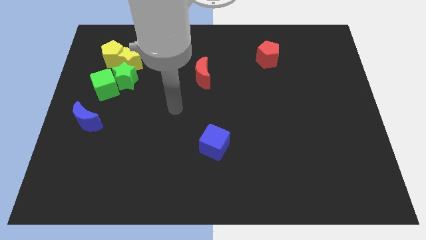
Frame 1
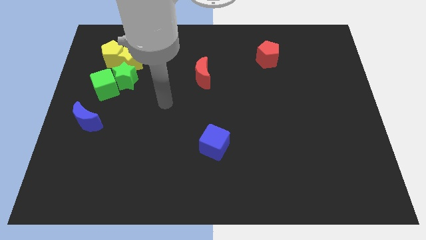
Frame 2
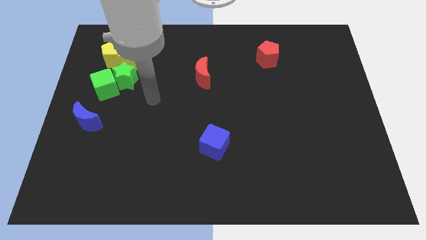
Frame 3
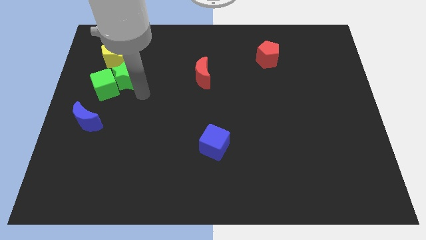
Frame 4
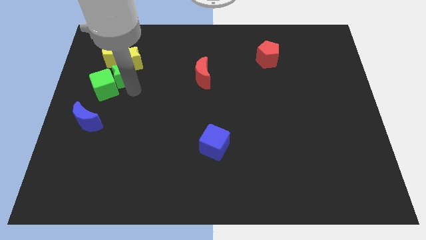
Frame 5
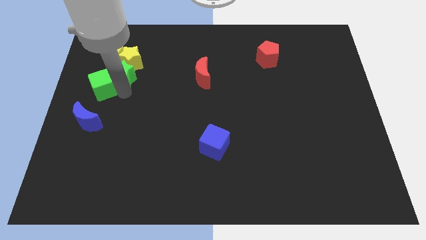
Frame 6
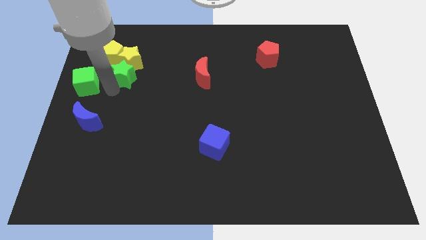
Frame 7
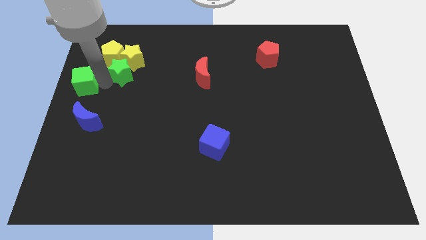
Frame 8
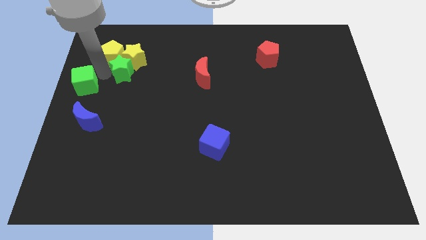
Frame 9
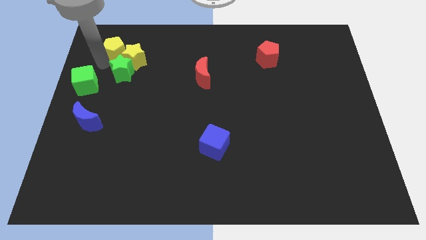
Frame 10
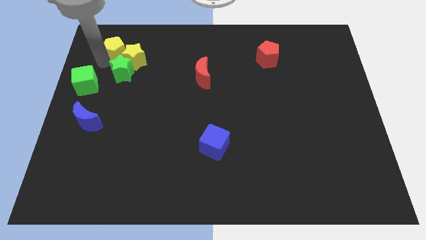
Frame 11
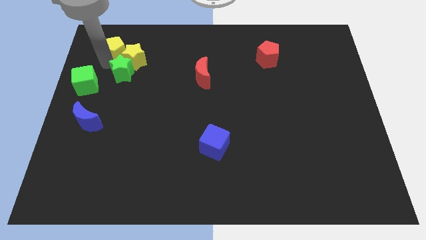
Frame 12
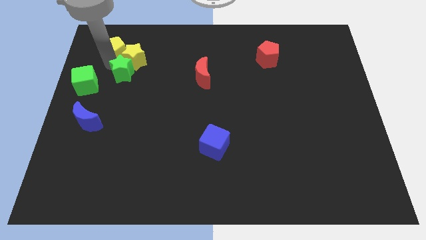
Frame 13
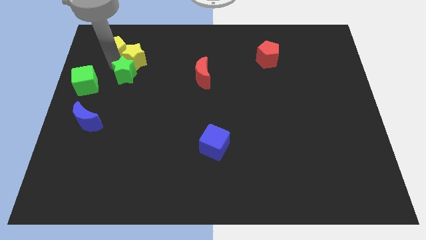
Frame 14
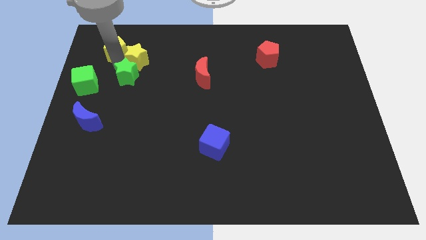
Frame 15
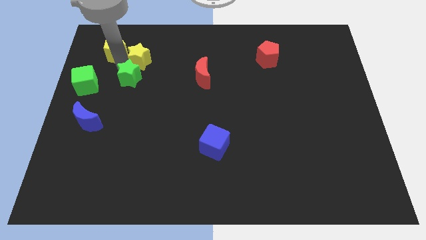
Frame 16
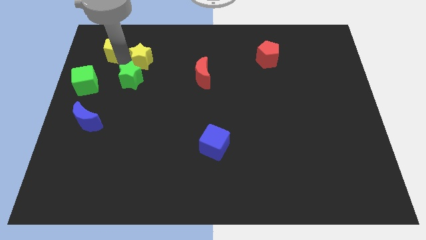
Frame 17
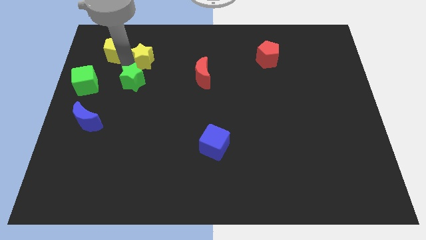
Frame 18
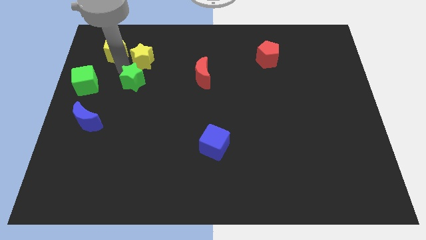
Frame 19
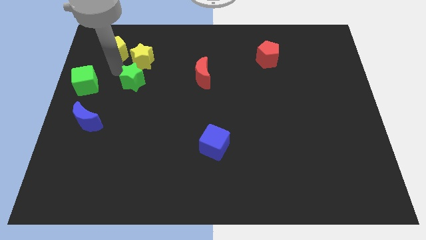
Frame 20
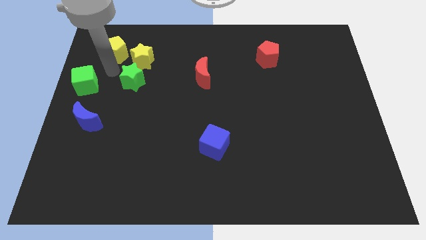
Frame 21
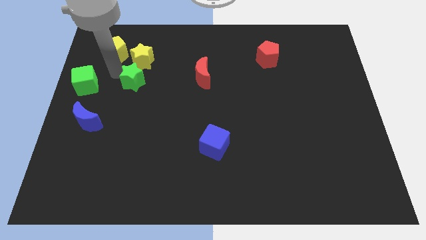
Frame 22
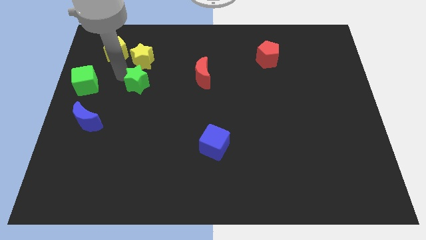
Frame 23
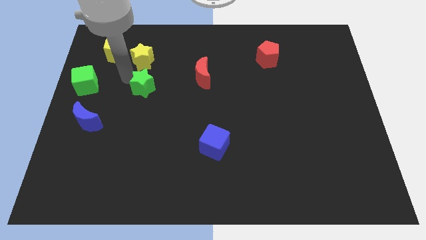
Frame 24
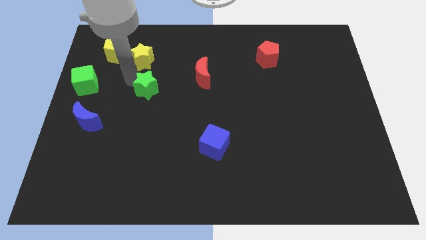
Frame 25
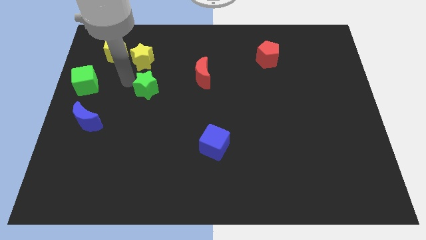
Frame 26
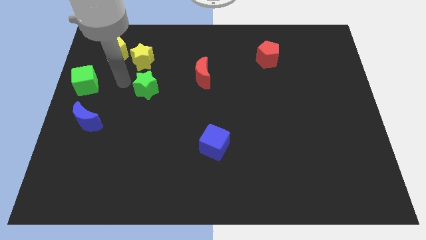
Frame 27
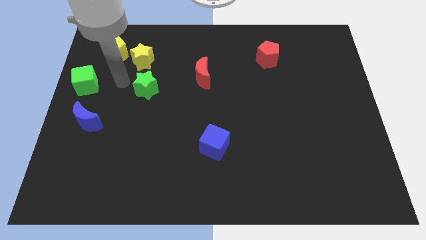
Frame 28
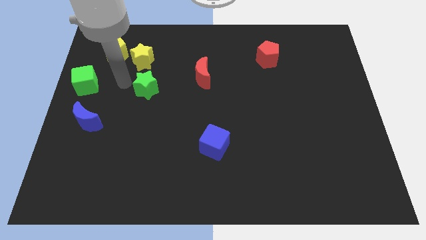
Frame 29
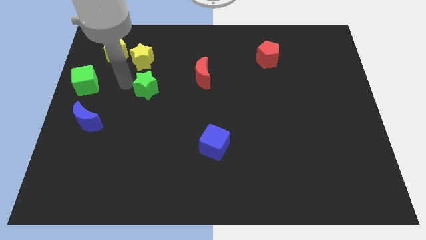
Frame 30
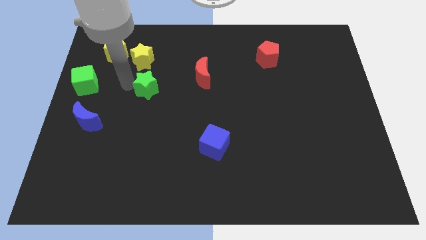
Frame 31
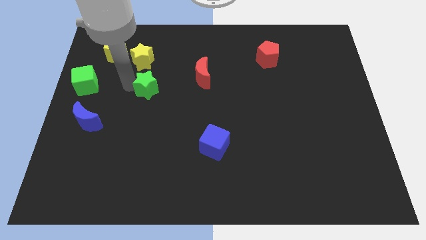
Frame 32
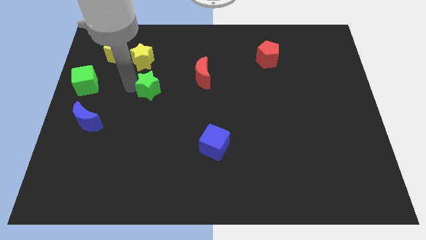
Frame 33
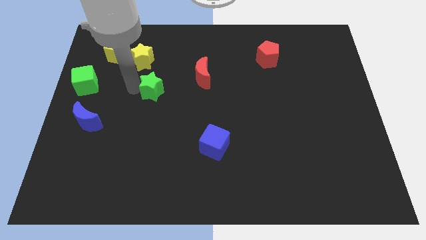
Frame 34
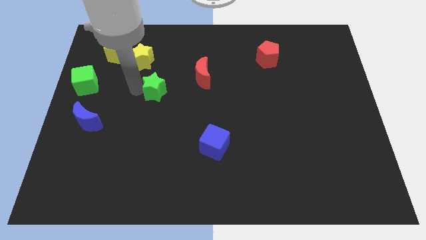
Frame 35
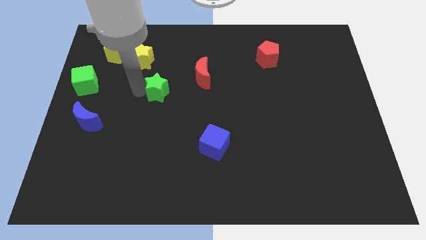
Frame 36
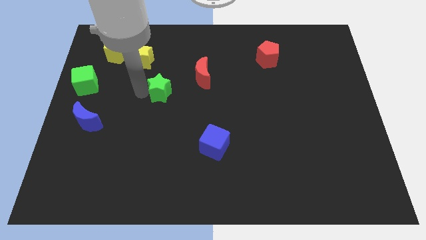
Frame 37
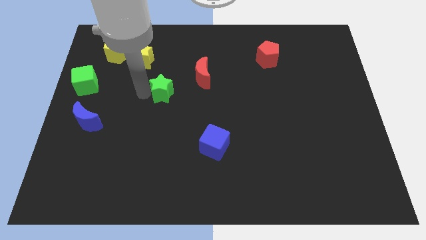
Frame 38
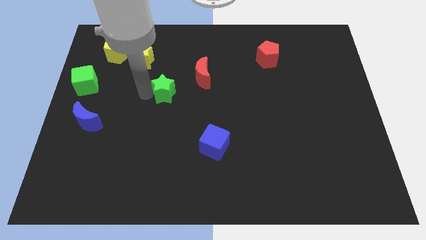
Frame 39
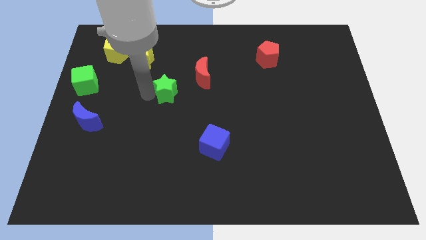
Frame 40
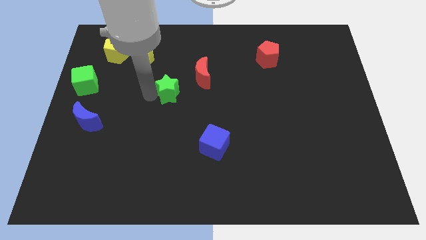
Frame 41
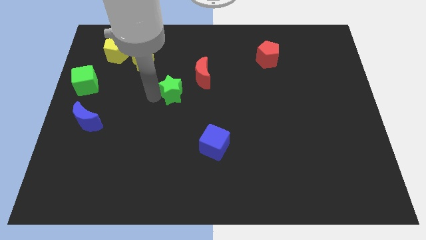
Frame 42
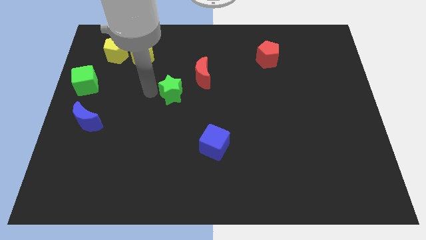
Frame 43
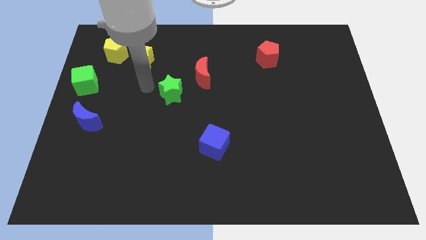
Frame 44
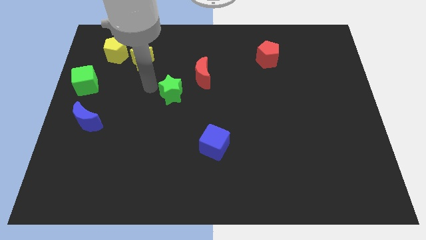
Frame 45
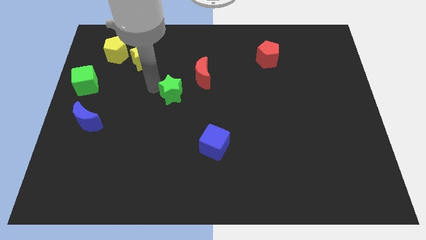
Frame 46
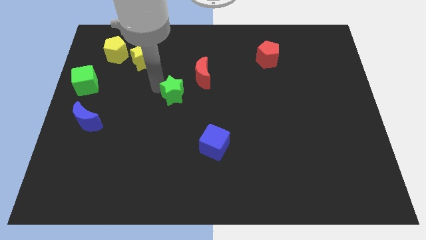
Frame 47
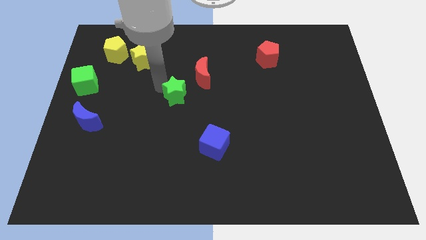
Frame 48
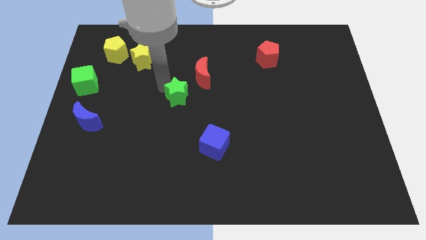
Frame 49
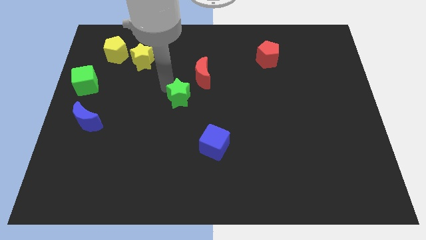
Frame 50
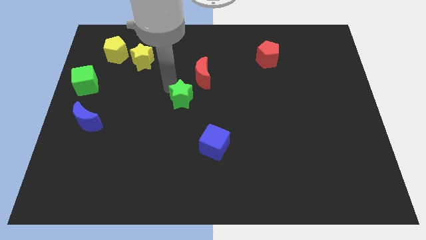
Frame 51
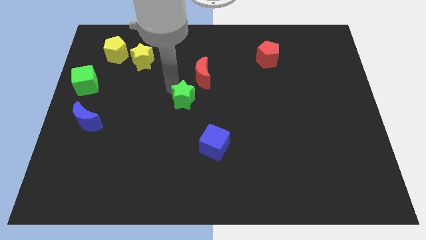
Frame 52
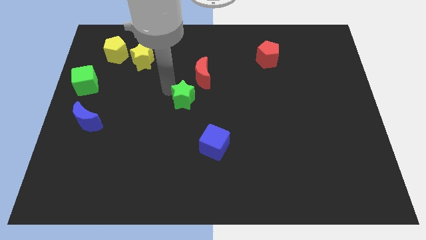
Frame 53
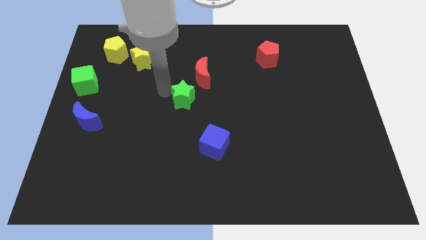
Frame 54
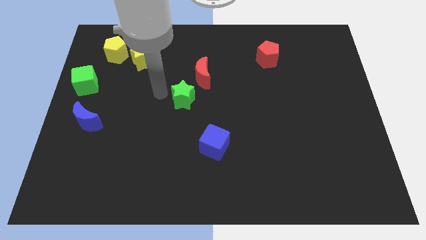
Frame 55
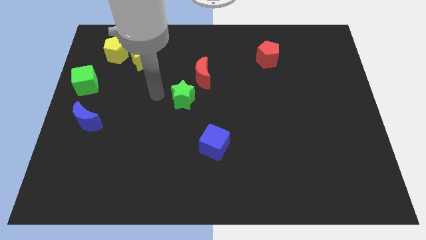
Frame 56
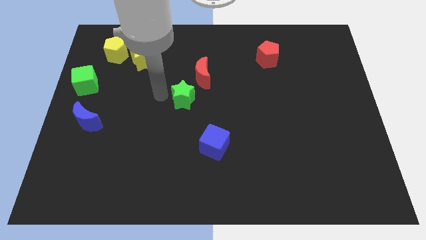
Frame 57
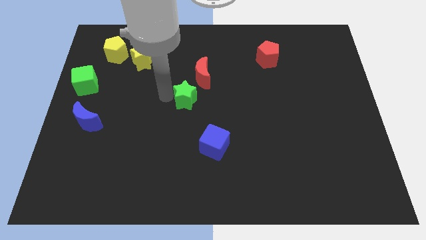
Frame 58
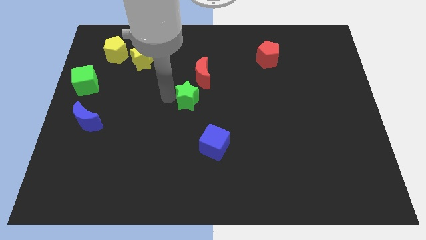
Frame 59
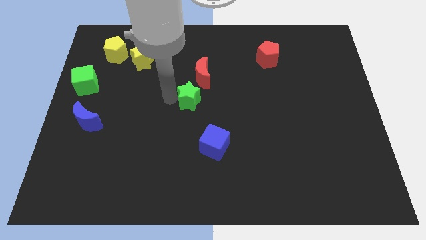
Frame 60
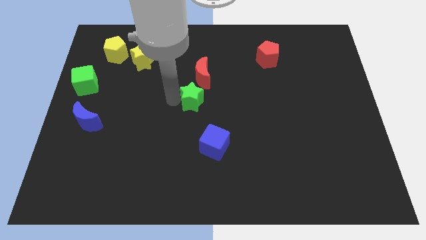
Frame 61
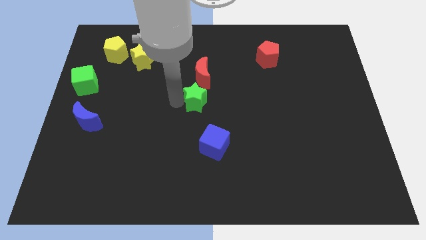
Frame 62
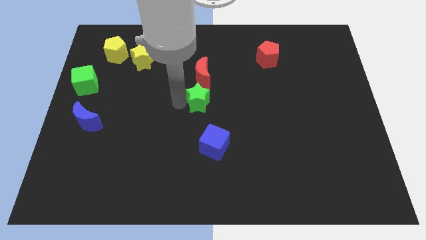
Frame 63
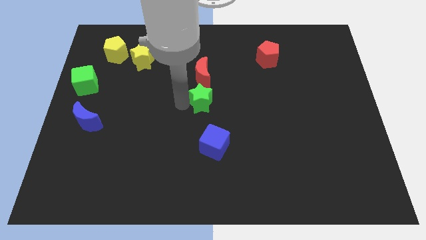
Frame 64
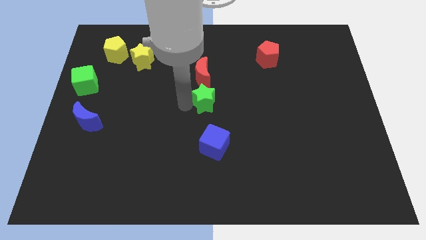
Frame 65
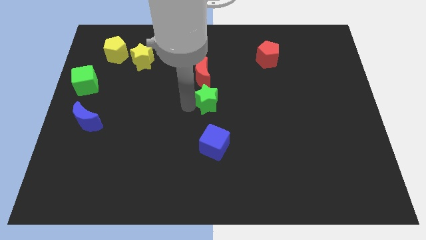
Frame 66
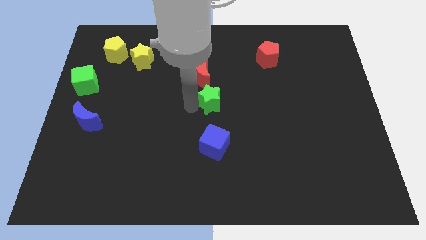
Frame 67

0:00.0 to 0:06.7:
push the green star diagonally down and to the right of the red moon

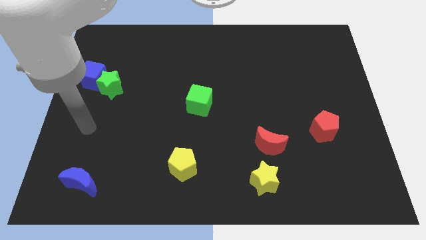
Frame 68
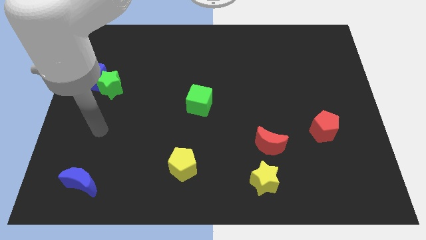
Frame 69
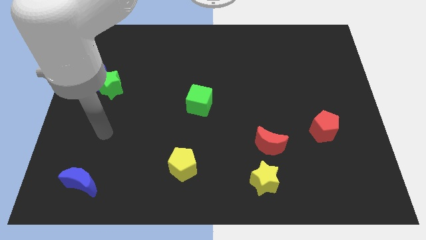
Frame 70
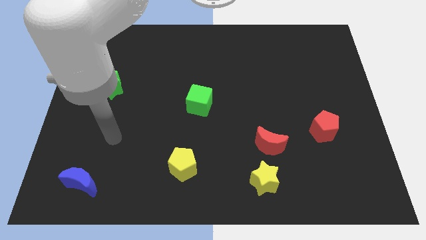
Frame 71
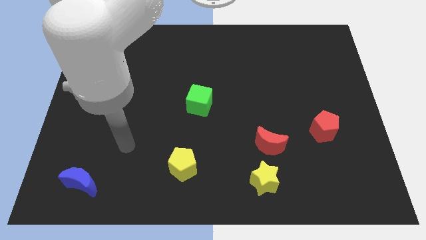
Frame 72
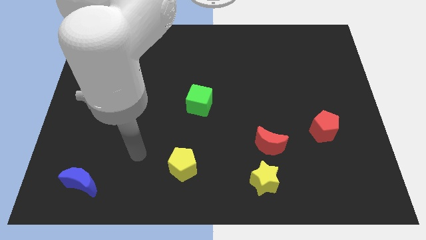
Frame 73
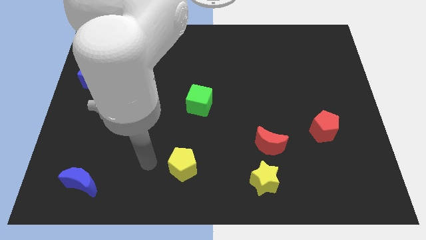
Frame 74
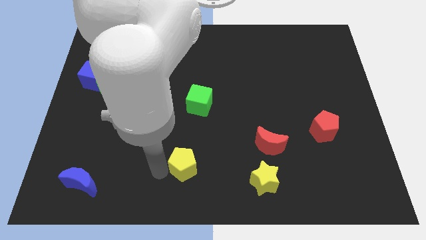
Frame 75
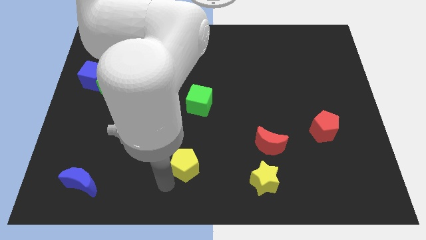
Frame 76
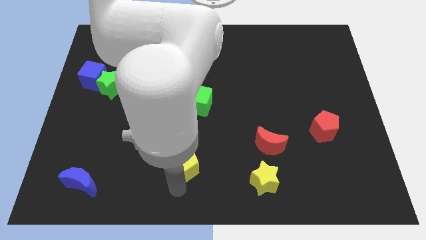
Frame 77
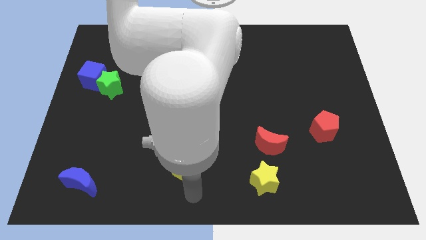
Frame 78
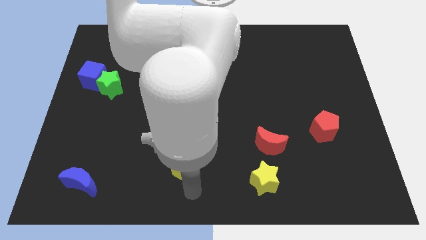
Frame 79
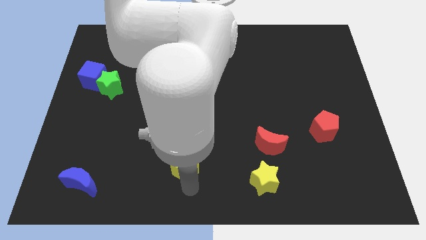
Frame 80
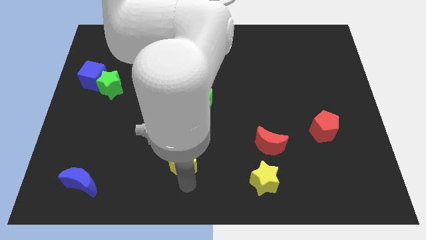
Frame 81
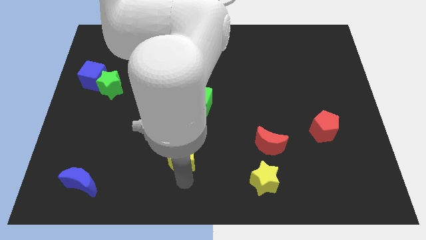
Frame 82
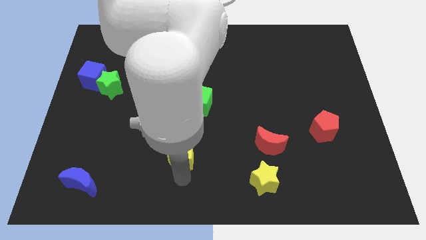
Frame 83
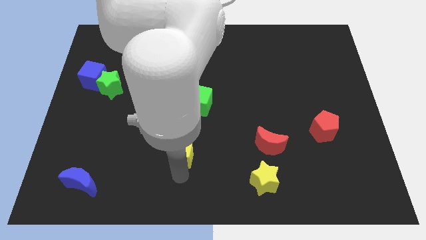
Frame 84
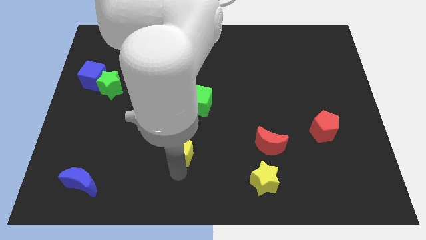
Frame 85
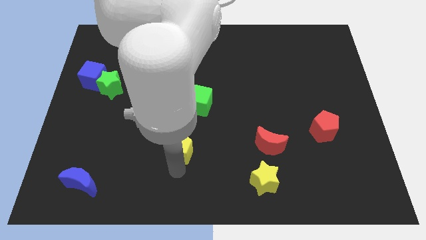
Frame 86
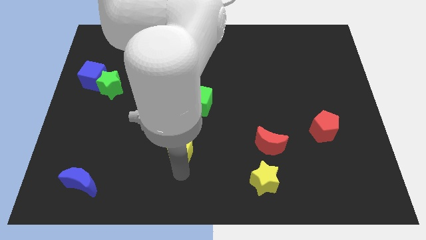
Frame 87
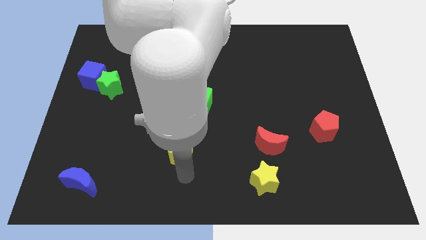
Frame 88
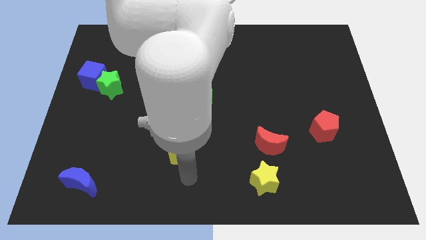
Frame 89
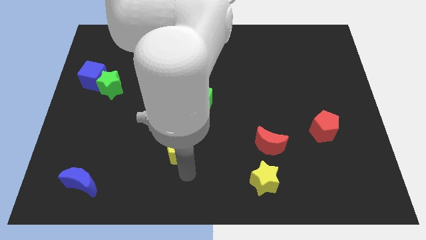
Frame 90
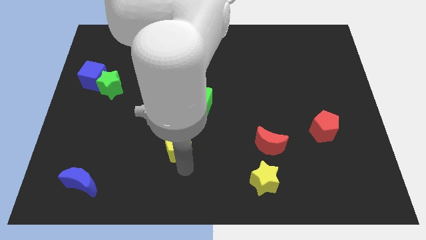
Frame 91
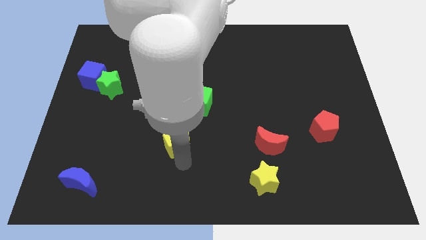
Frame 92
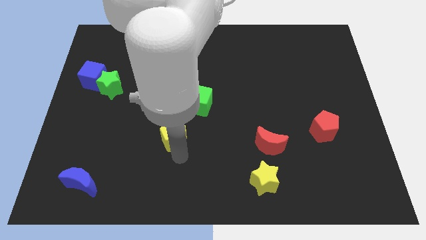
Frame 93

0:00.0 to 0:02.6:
put the yellow pentagon diagonally down and to the left of the green cube
